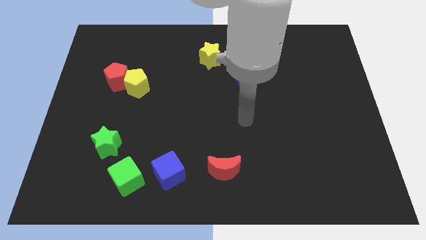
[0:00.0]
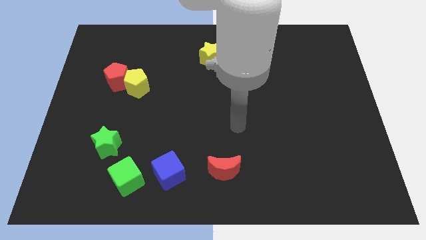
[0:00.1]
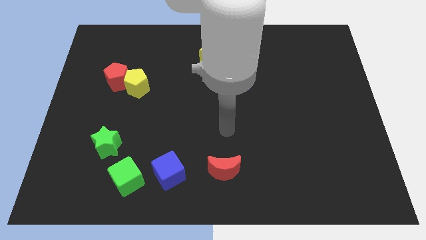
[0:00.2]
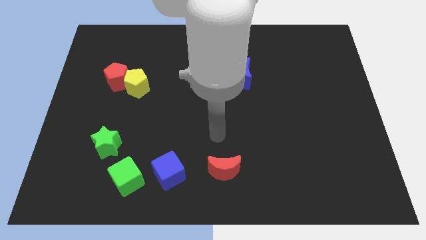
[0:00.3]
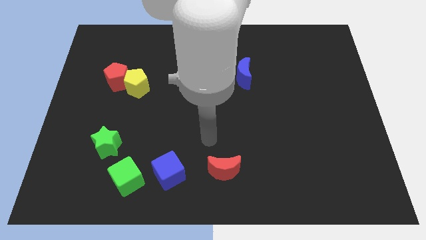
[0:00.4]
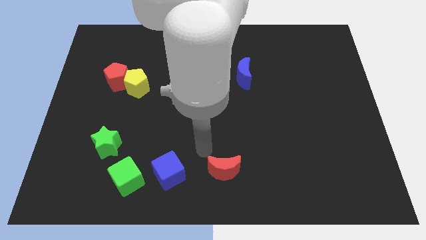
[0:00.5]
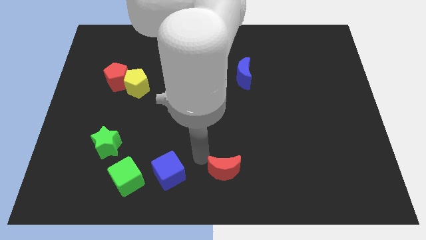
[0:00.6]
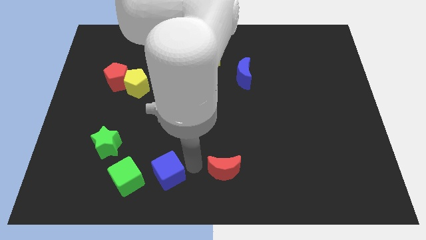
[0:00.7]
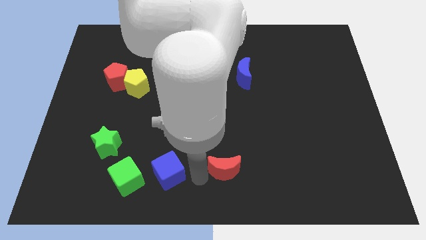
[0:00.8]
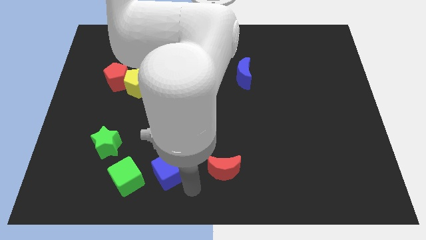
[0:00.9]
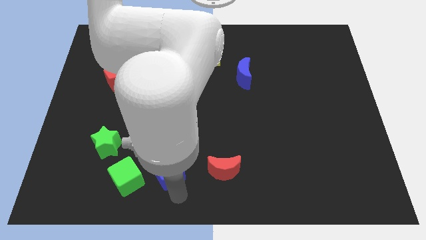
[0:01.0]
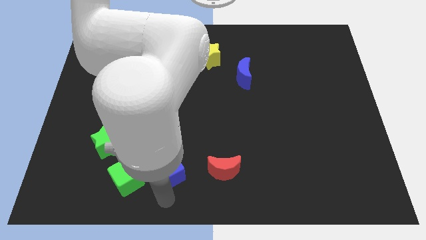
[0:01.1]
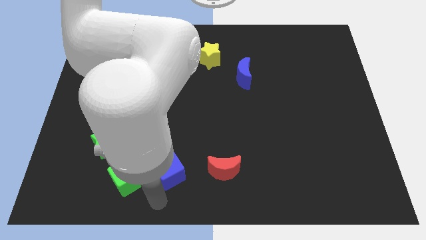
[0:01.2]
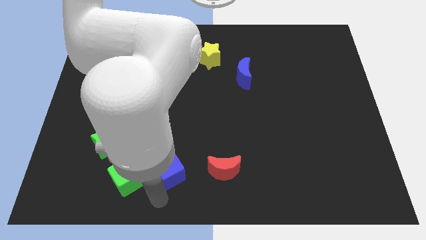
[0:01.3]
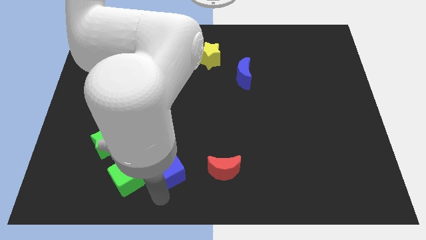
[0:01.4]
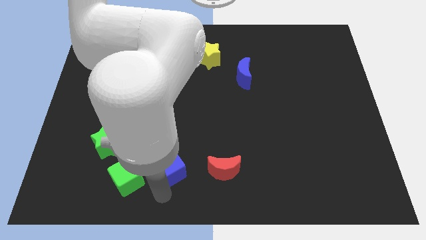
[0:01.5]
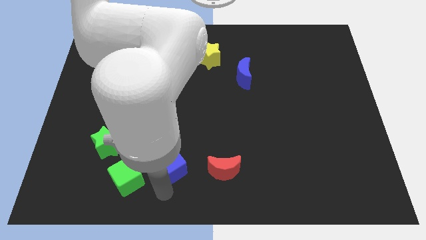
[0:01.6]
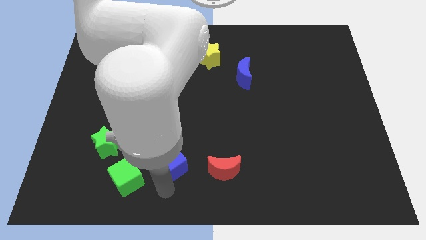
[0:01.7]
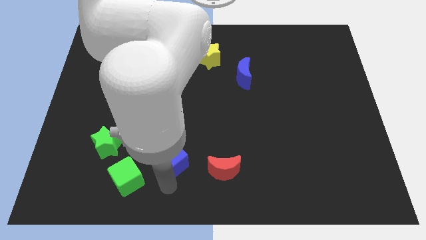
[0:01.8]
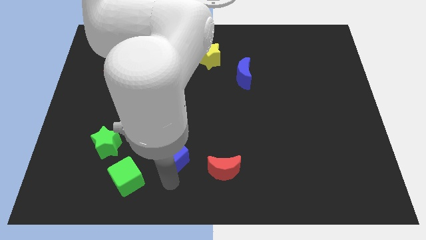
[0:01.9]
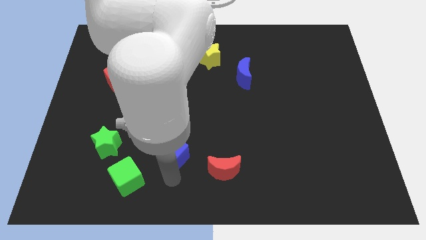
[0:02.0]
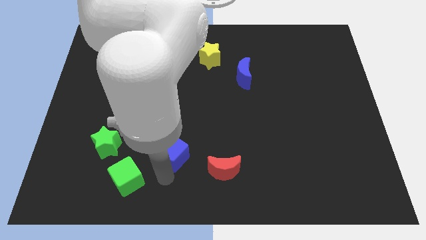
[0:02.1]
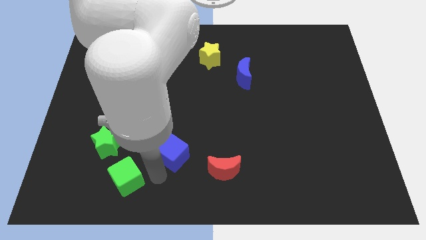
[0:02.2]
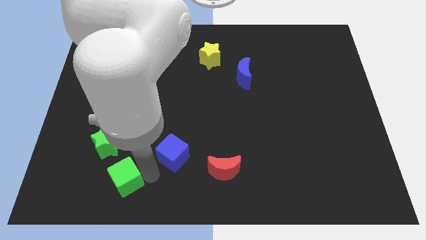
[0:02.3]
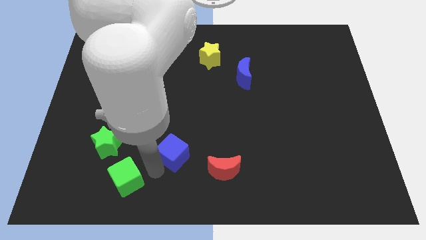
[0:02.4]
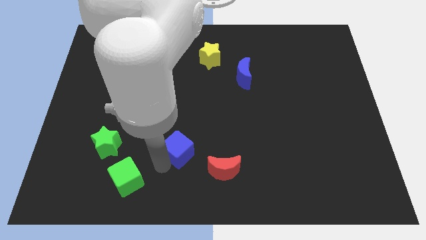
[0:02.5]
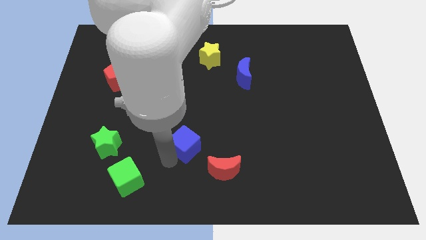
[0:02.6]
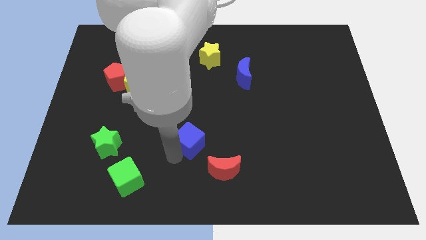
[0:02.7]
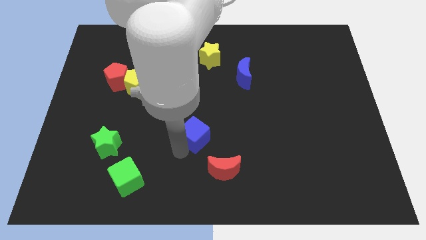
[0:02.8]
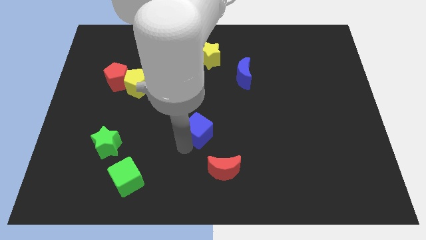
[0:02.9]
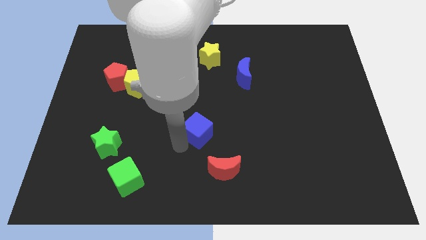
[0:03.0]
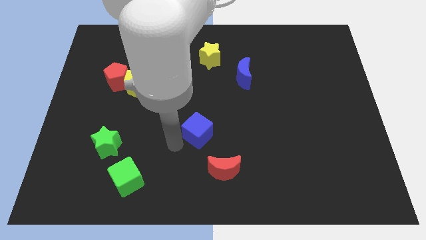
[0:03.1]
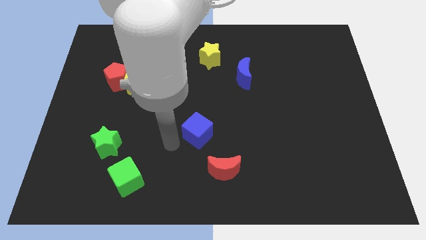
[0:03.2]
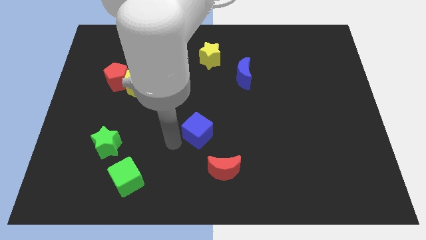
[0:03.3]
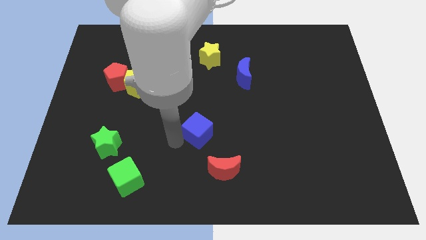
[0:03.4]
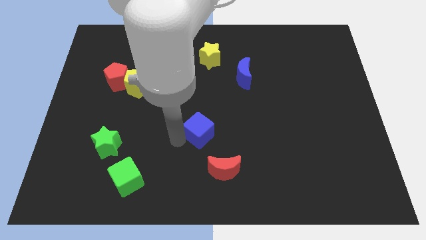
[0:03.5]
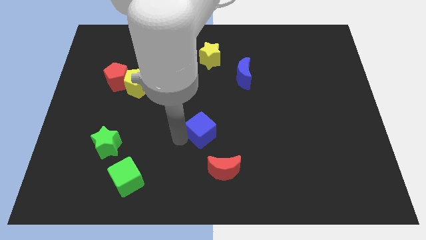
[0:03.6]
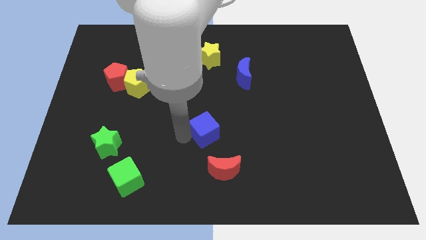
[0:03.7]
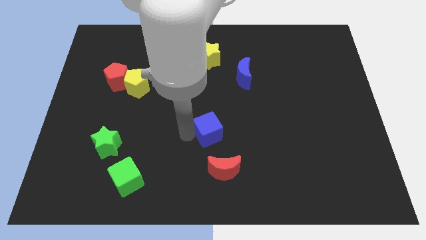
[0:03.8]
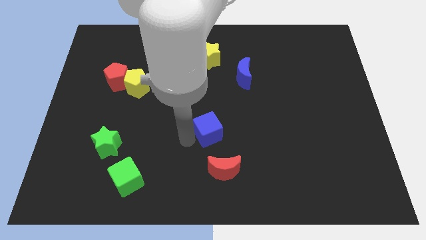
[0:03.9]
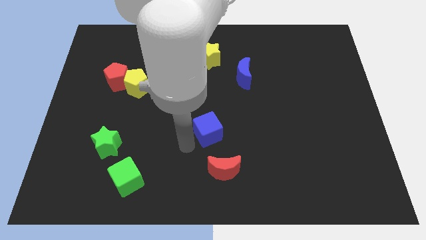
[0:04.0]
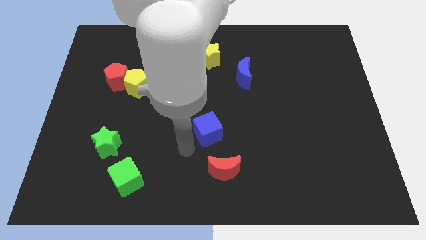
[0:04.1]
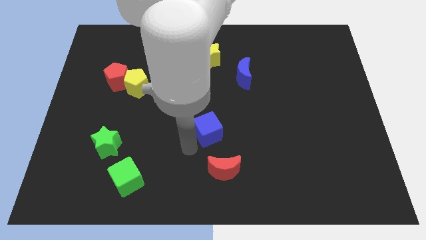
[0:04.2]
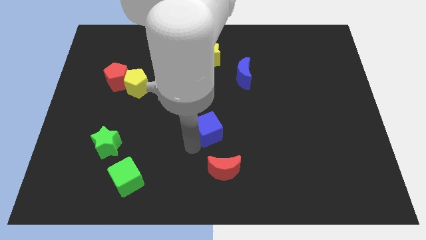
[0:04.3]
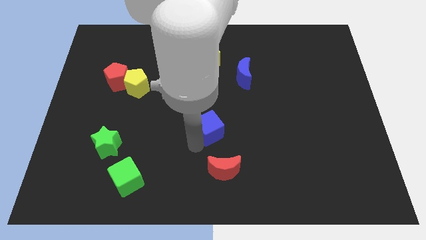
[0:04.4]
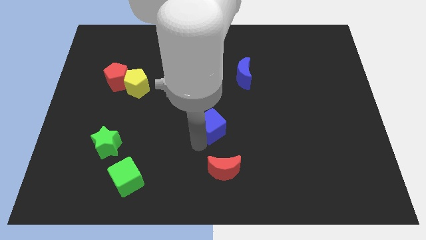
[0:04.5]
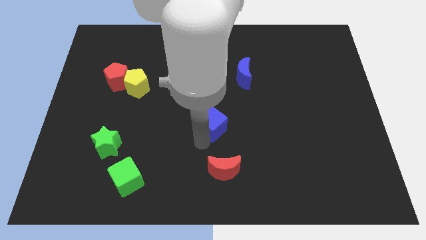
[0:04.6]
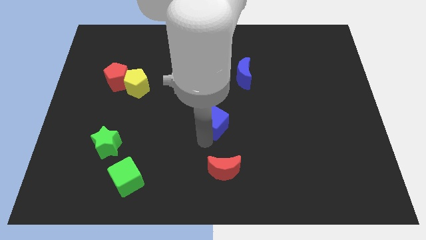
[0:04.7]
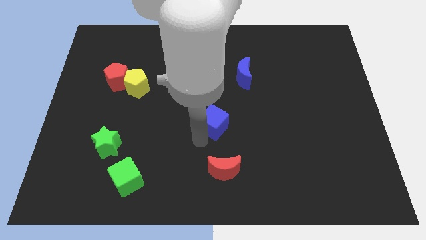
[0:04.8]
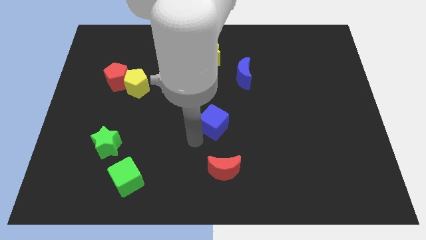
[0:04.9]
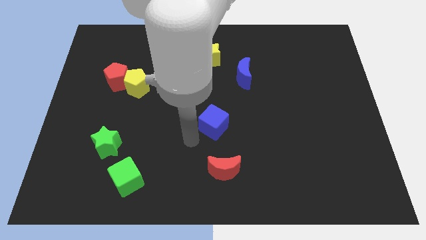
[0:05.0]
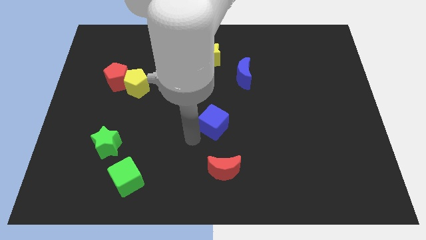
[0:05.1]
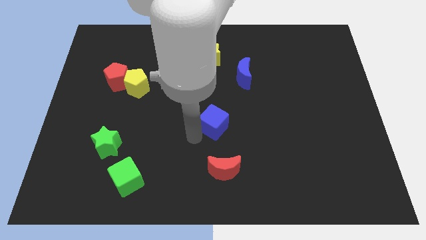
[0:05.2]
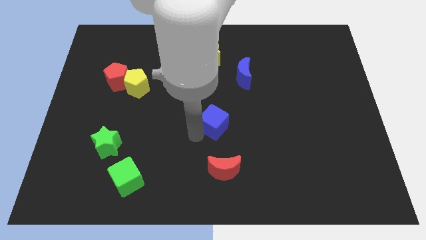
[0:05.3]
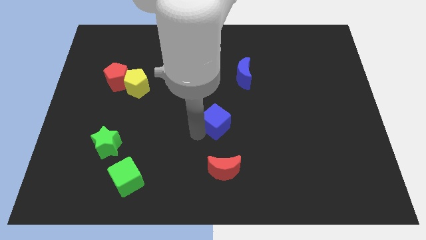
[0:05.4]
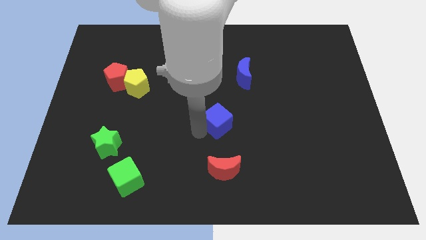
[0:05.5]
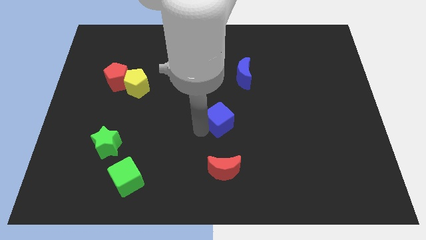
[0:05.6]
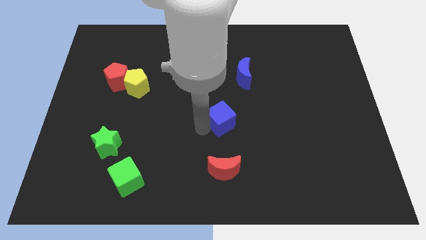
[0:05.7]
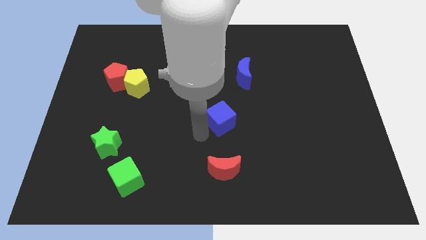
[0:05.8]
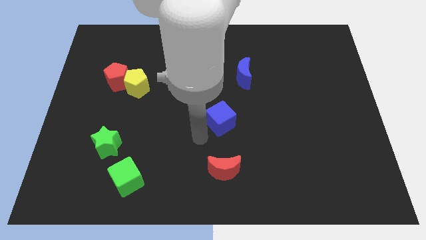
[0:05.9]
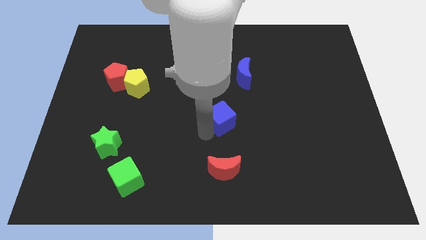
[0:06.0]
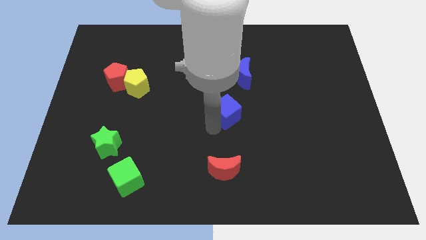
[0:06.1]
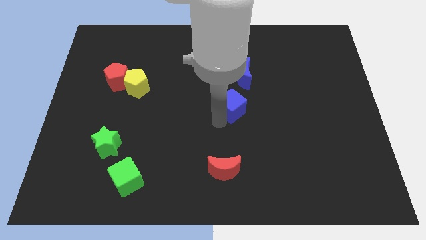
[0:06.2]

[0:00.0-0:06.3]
slide the blue cube up and to the right diagonally

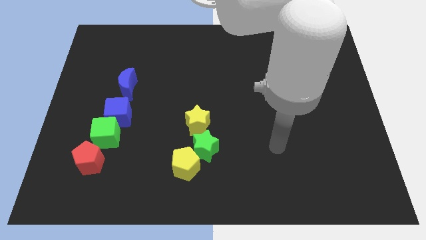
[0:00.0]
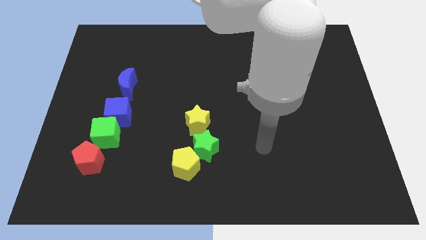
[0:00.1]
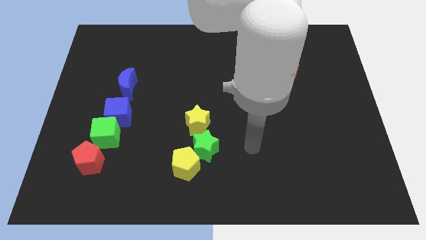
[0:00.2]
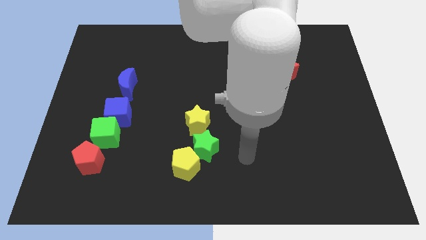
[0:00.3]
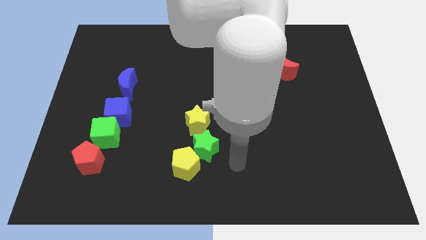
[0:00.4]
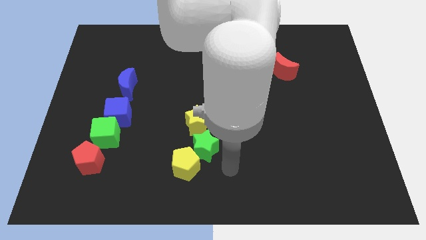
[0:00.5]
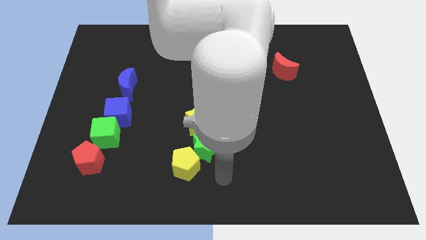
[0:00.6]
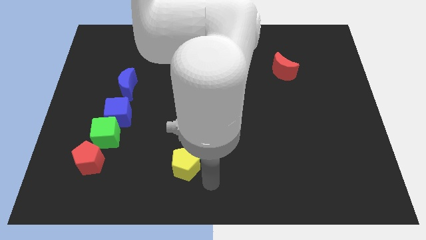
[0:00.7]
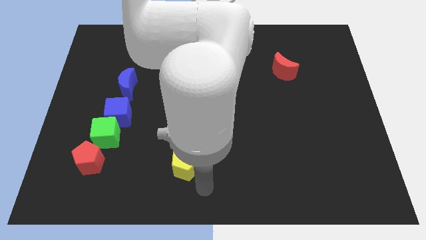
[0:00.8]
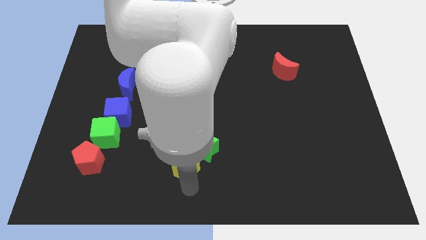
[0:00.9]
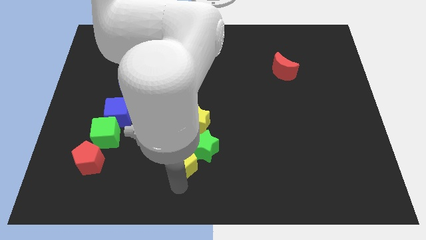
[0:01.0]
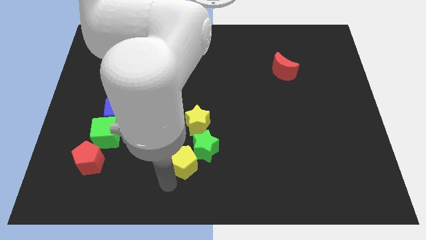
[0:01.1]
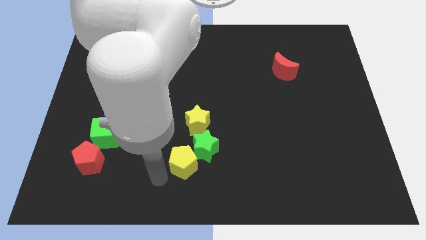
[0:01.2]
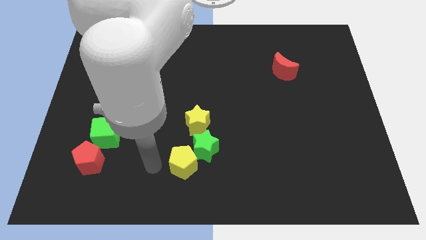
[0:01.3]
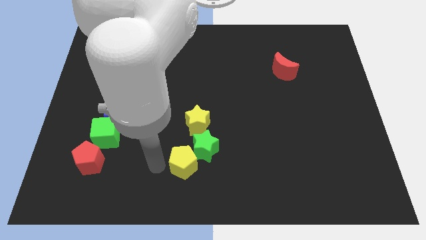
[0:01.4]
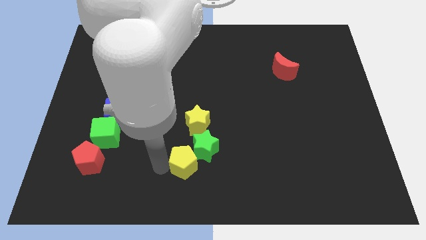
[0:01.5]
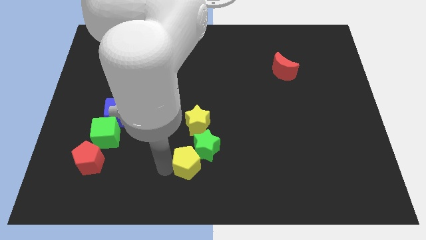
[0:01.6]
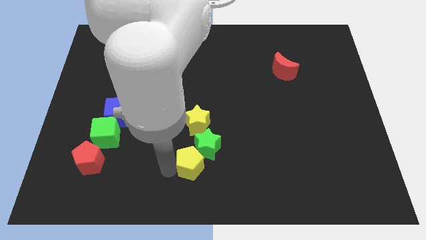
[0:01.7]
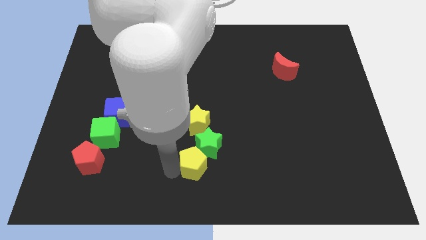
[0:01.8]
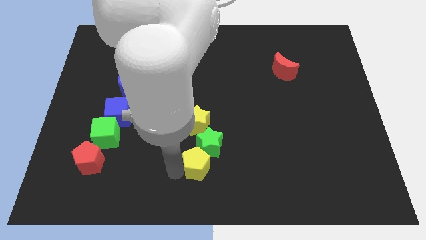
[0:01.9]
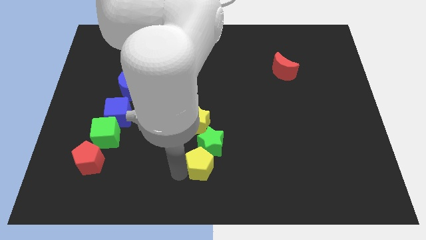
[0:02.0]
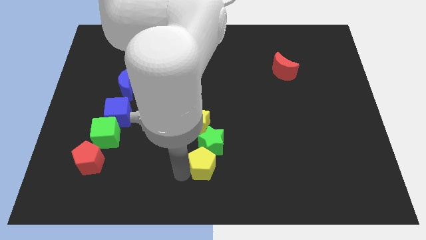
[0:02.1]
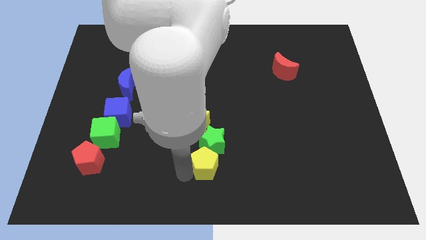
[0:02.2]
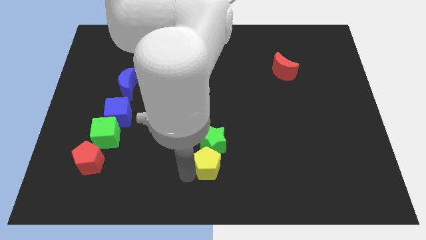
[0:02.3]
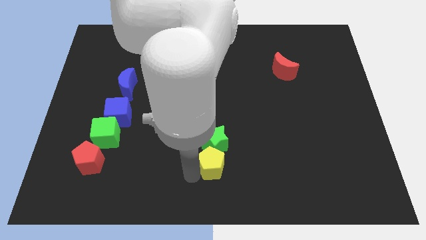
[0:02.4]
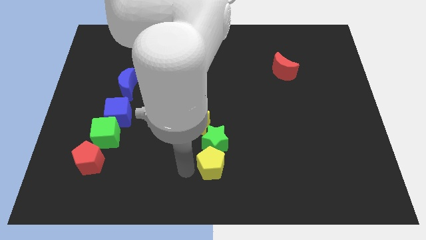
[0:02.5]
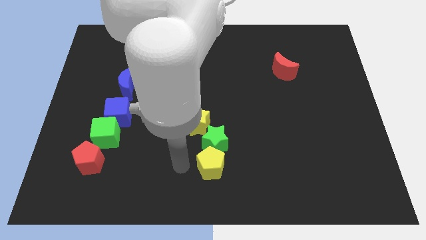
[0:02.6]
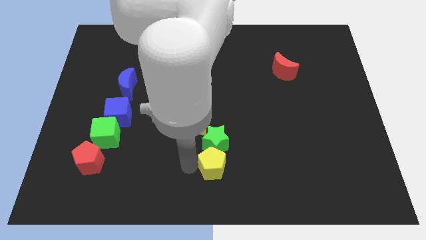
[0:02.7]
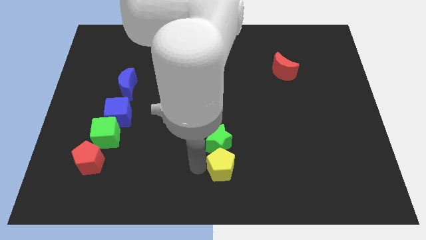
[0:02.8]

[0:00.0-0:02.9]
slide the yellow pentagon a little bit to the right
